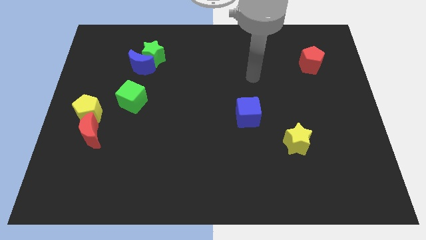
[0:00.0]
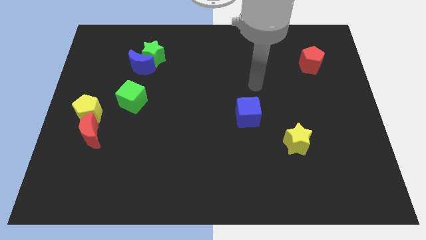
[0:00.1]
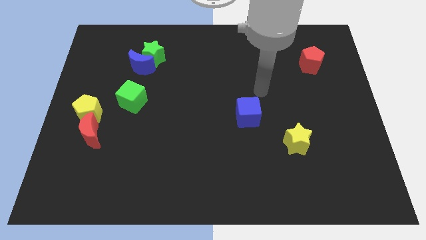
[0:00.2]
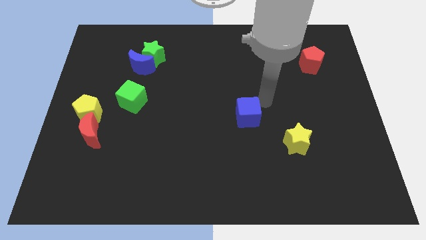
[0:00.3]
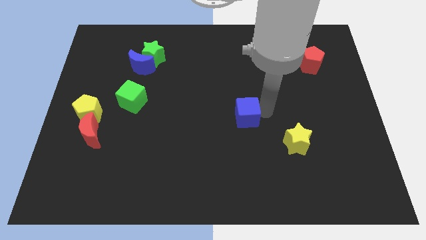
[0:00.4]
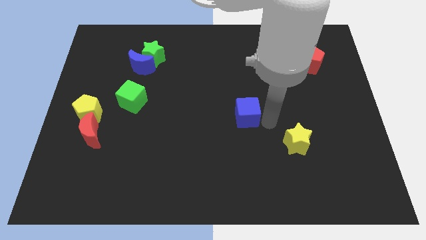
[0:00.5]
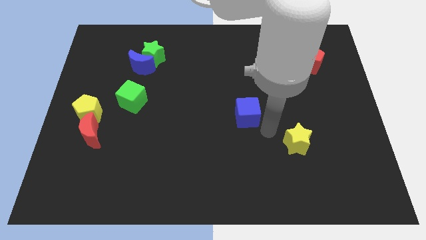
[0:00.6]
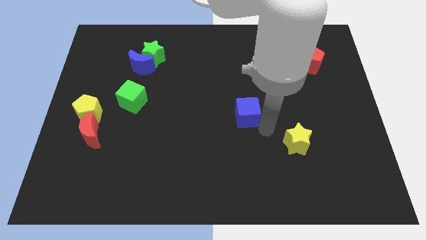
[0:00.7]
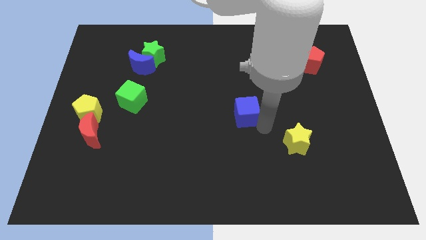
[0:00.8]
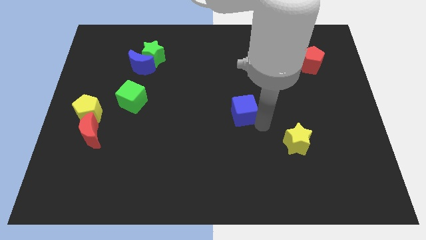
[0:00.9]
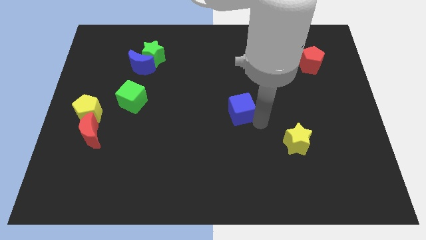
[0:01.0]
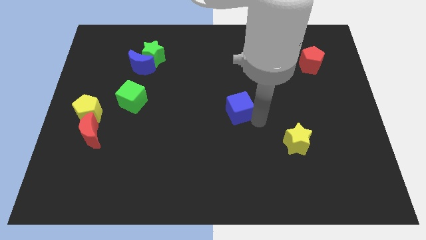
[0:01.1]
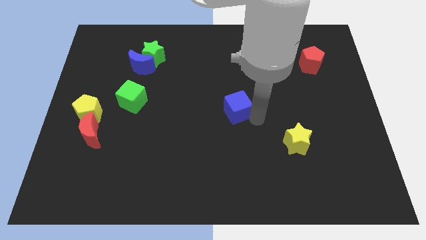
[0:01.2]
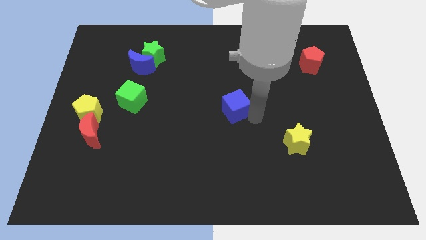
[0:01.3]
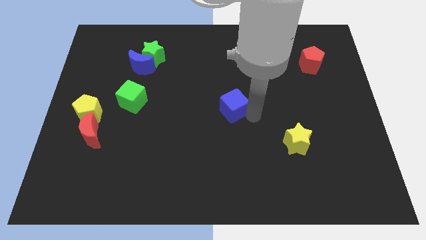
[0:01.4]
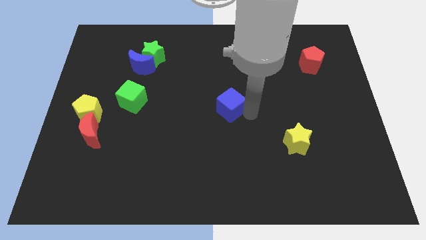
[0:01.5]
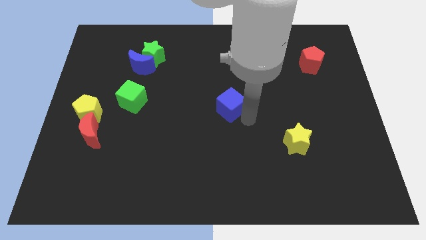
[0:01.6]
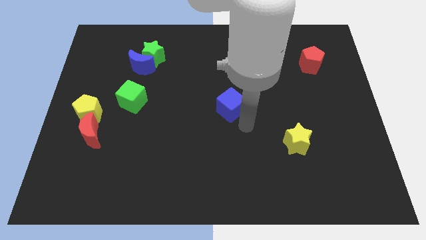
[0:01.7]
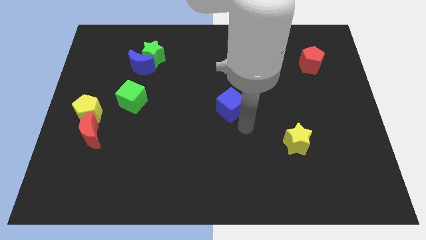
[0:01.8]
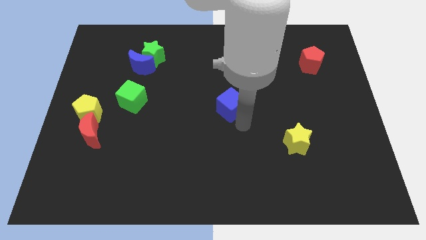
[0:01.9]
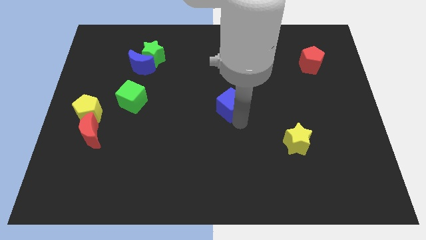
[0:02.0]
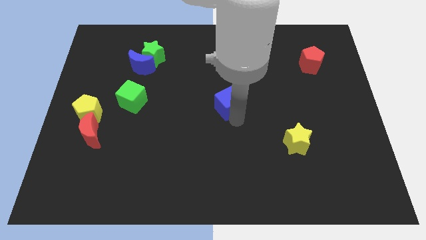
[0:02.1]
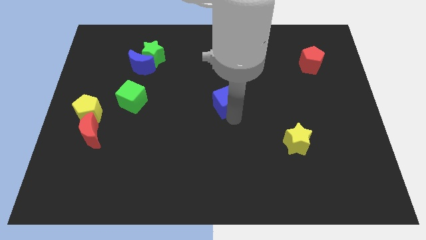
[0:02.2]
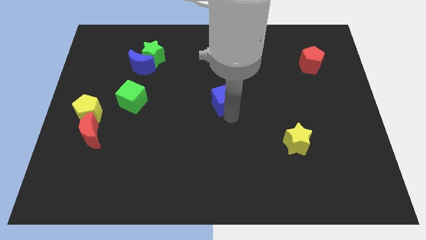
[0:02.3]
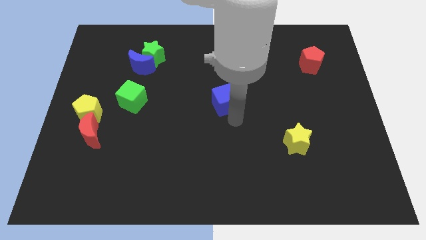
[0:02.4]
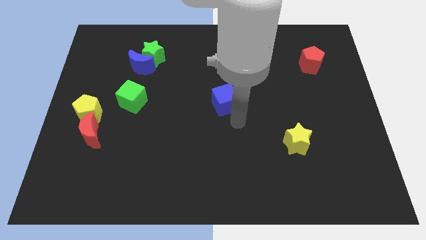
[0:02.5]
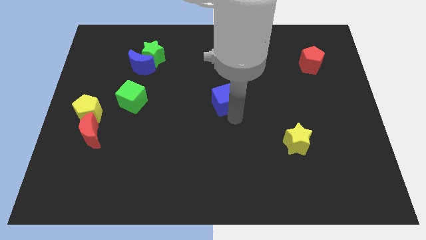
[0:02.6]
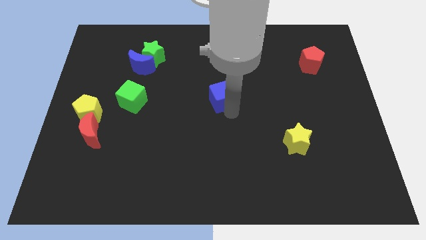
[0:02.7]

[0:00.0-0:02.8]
slightly push the blue cube upwards and to the left diagonally

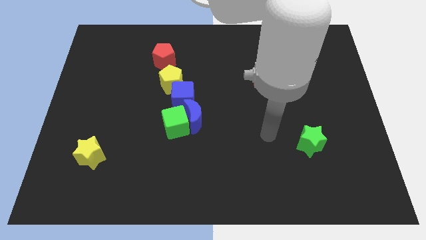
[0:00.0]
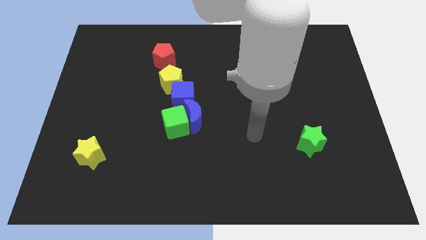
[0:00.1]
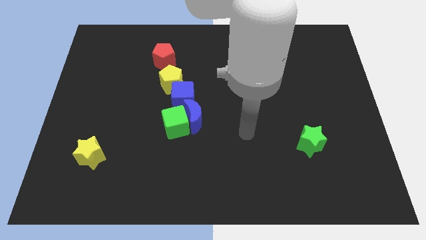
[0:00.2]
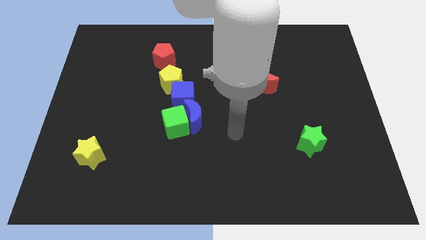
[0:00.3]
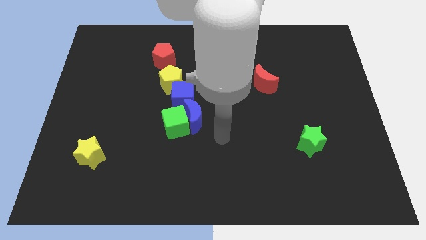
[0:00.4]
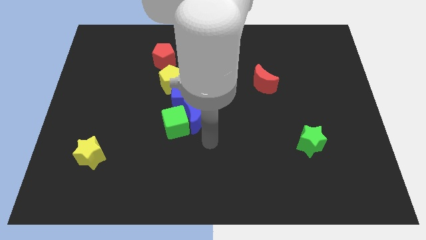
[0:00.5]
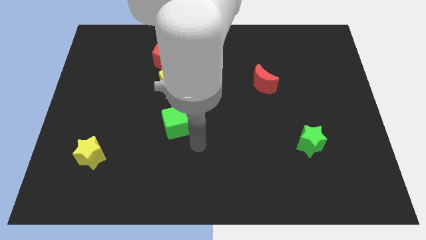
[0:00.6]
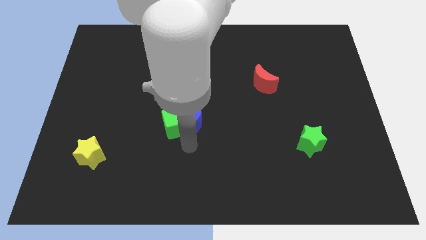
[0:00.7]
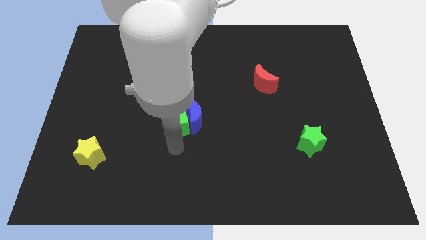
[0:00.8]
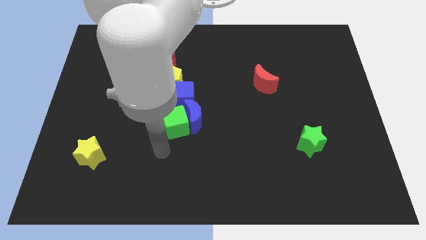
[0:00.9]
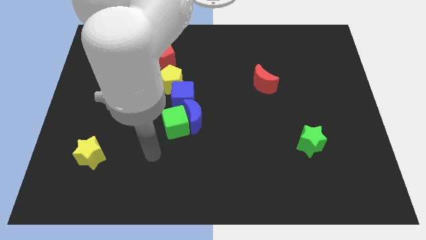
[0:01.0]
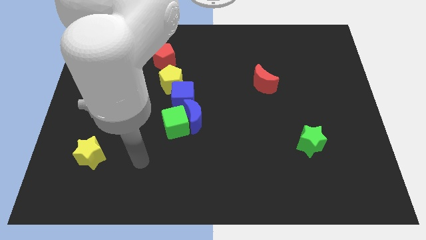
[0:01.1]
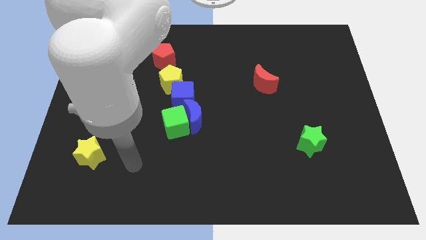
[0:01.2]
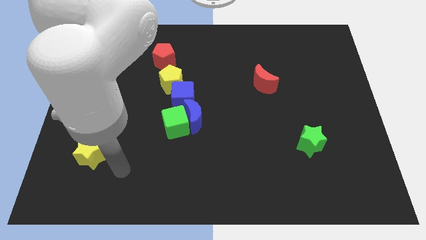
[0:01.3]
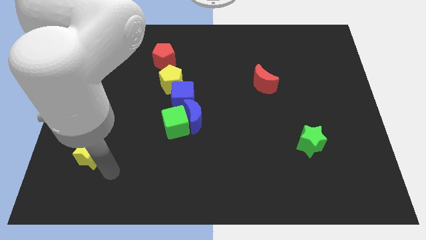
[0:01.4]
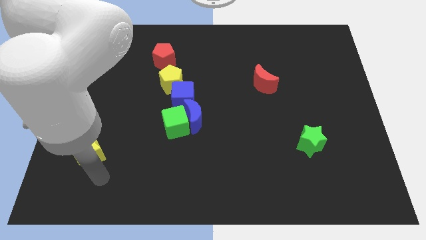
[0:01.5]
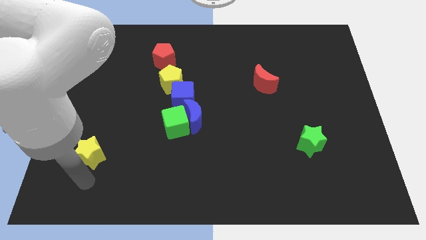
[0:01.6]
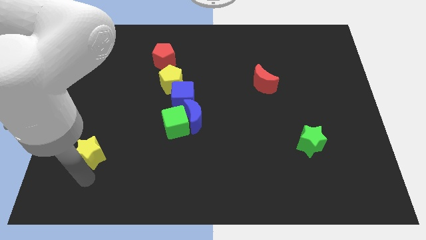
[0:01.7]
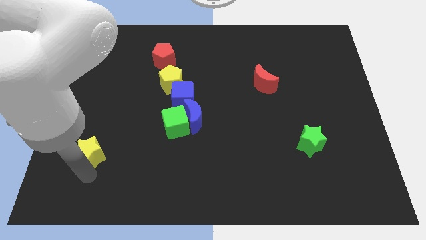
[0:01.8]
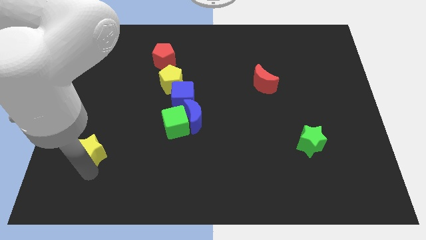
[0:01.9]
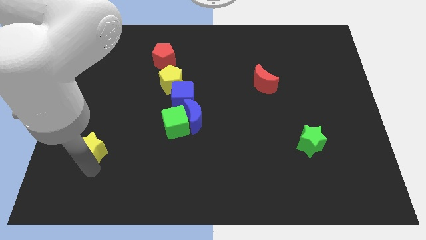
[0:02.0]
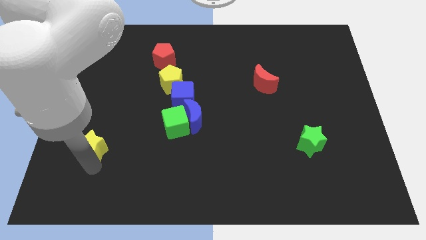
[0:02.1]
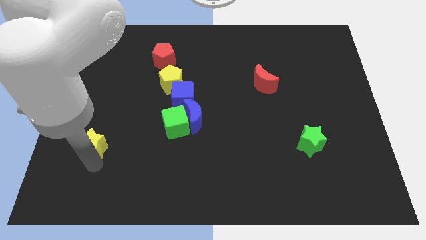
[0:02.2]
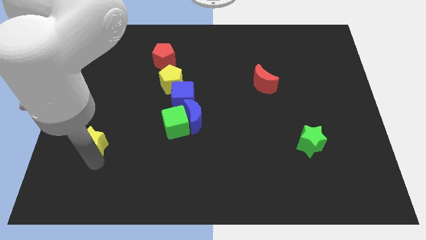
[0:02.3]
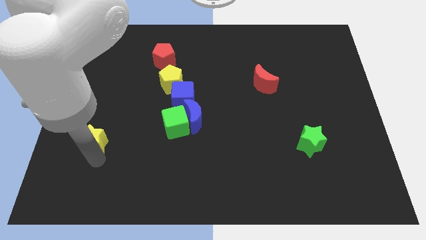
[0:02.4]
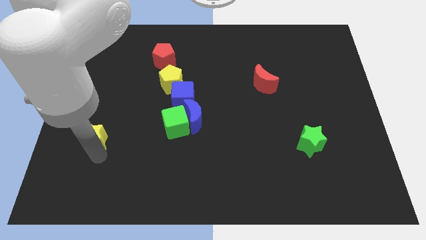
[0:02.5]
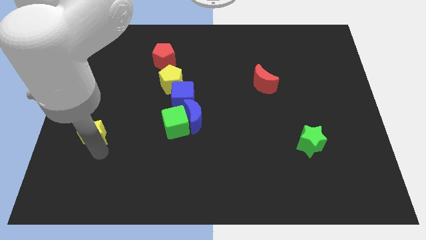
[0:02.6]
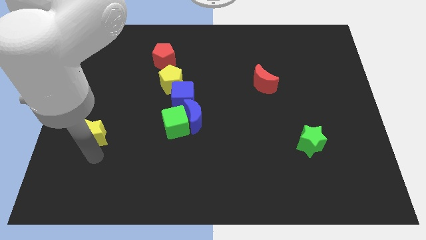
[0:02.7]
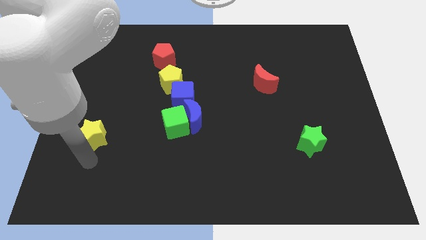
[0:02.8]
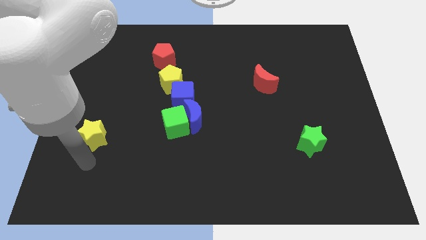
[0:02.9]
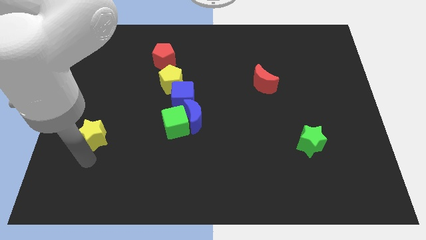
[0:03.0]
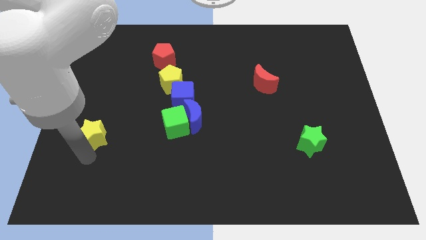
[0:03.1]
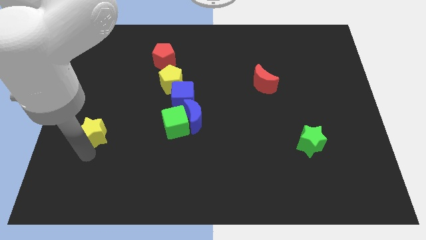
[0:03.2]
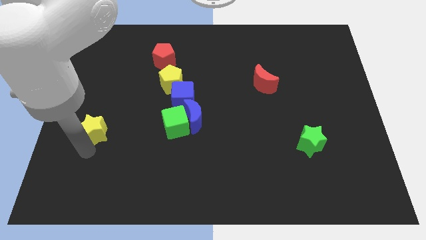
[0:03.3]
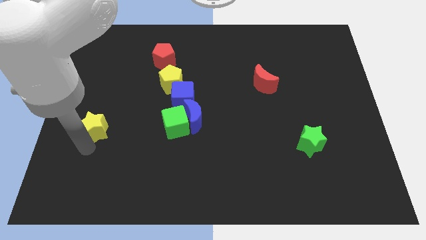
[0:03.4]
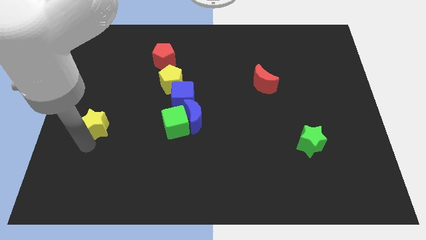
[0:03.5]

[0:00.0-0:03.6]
push the yellow star up a little

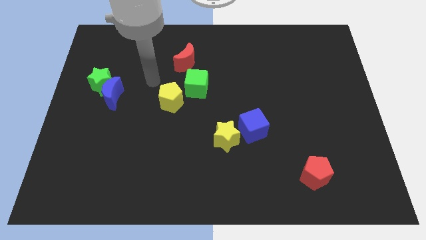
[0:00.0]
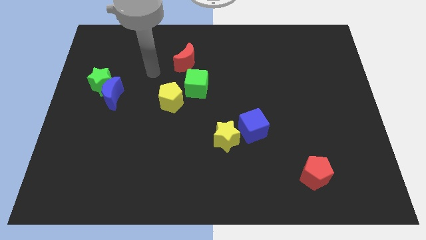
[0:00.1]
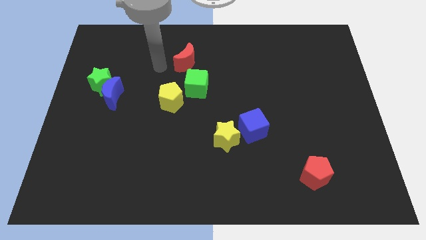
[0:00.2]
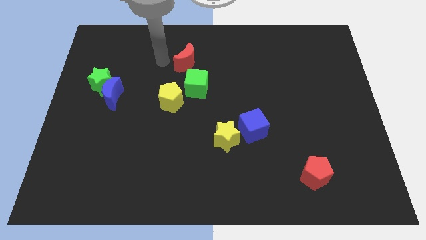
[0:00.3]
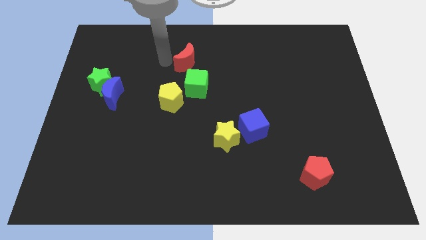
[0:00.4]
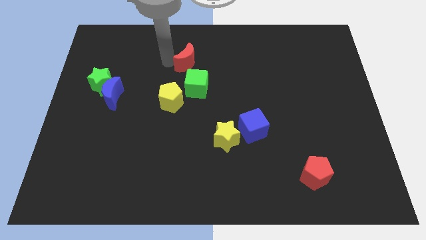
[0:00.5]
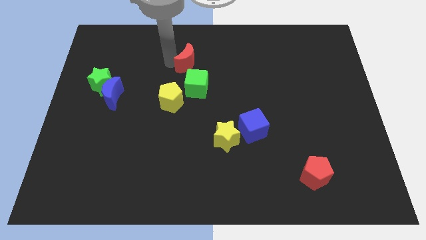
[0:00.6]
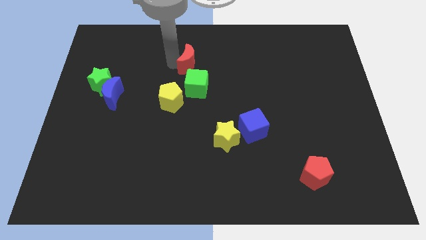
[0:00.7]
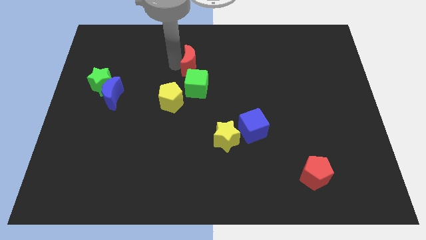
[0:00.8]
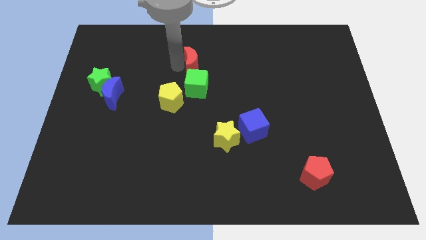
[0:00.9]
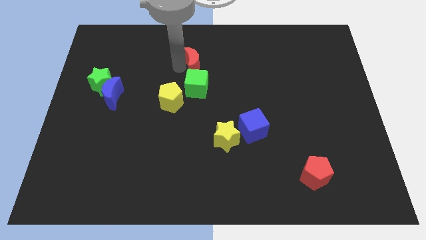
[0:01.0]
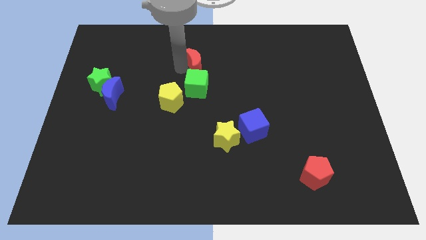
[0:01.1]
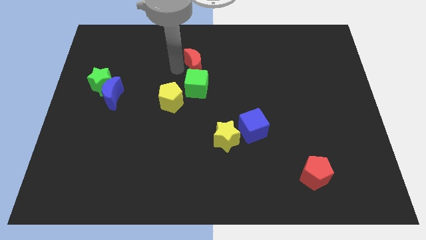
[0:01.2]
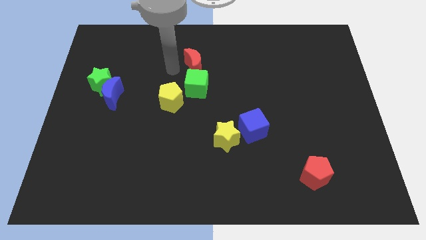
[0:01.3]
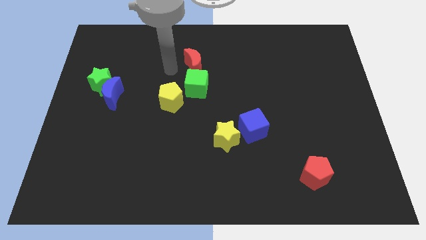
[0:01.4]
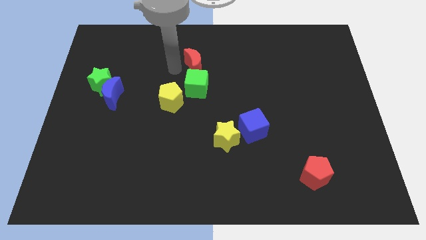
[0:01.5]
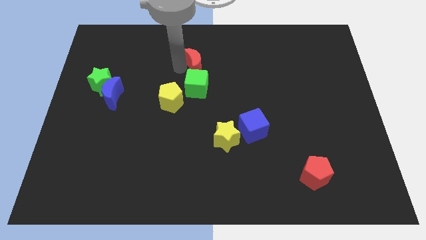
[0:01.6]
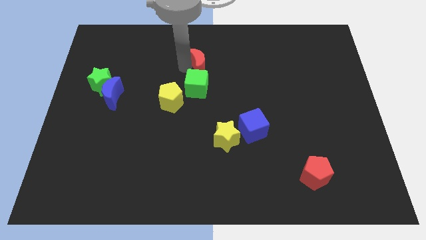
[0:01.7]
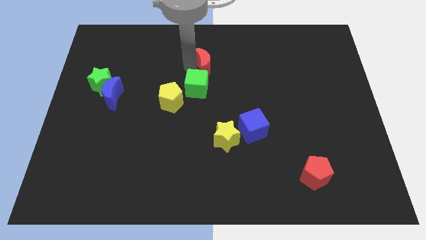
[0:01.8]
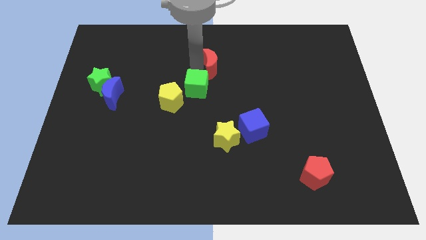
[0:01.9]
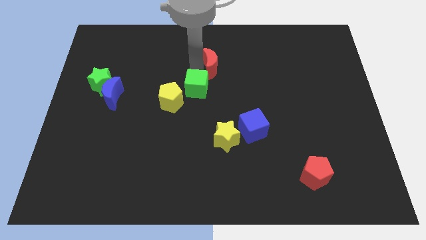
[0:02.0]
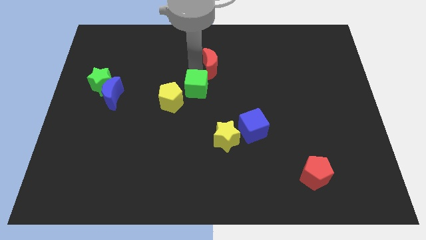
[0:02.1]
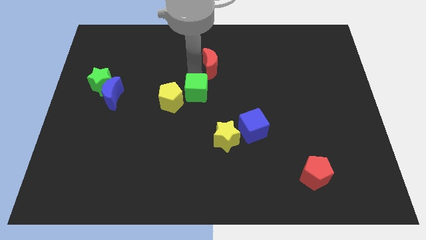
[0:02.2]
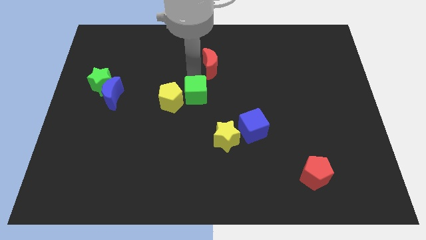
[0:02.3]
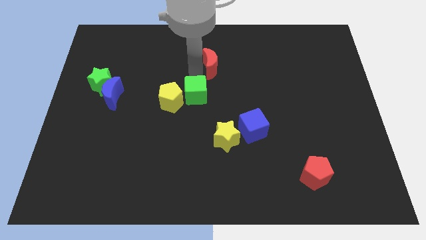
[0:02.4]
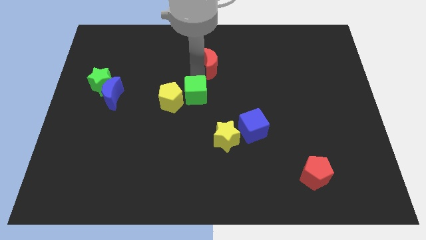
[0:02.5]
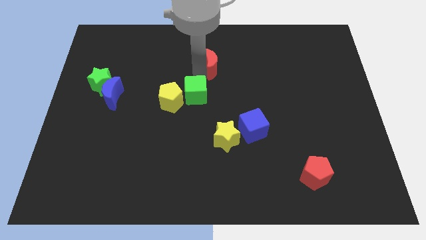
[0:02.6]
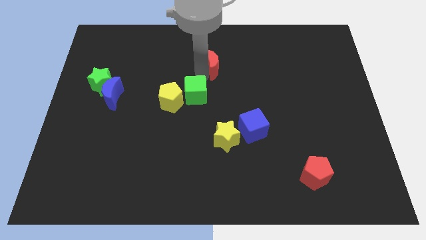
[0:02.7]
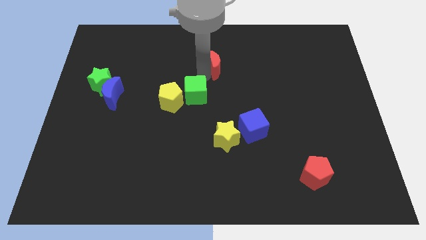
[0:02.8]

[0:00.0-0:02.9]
slide the red moon to the right somewhat
